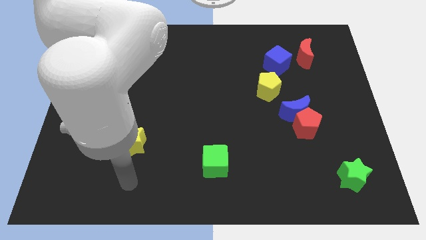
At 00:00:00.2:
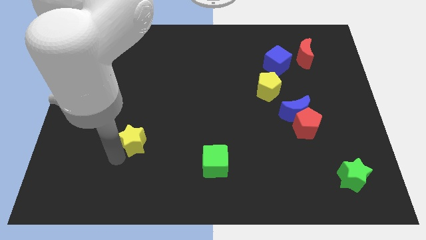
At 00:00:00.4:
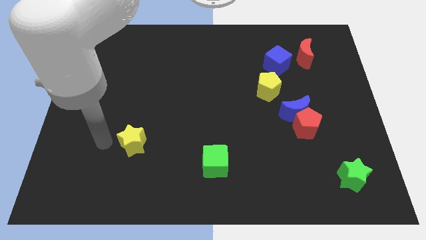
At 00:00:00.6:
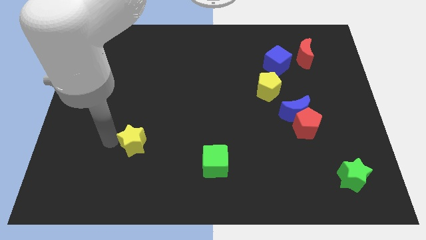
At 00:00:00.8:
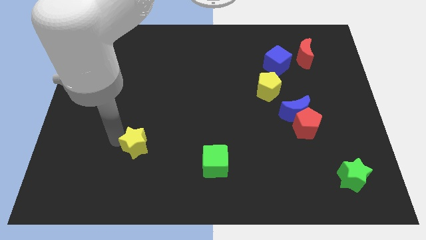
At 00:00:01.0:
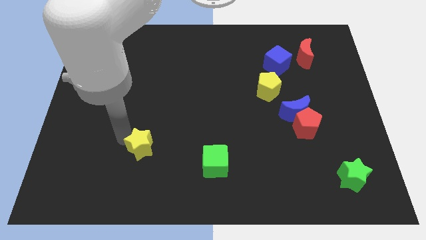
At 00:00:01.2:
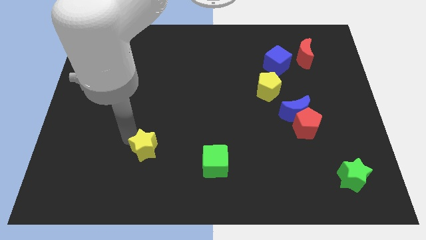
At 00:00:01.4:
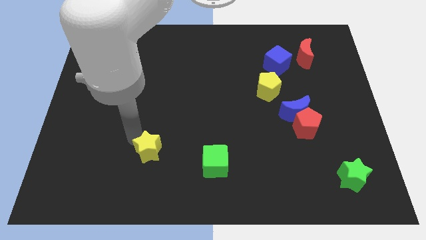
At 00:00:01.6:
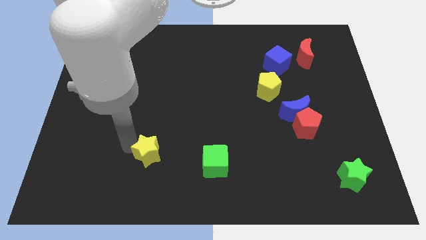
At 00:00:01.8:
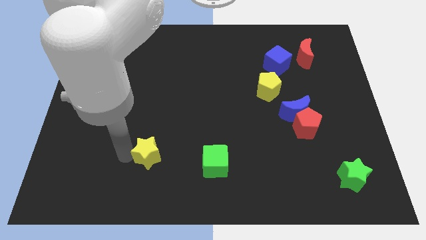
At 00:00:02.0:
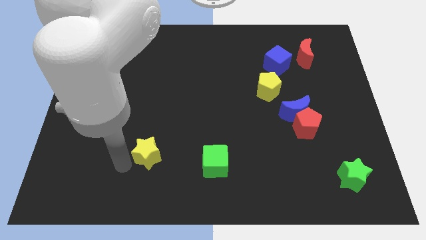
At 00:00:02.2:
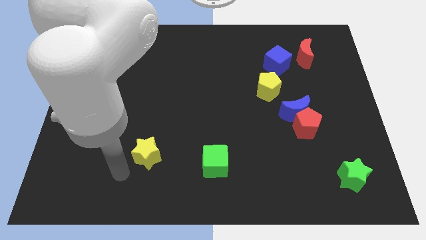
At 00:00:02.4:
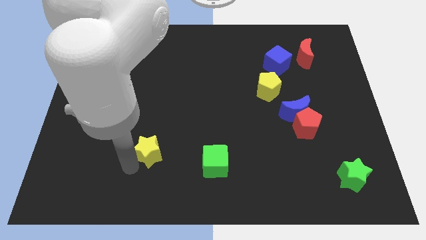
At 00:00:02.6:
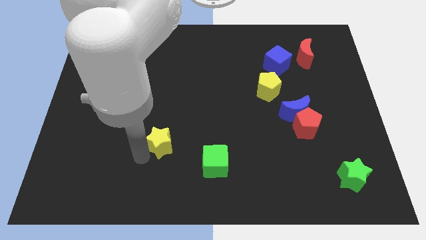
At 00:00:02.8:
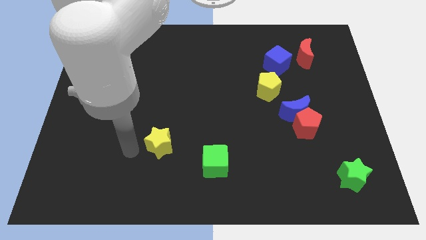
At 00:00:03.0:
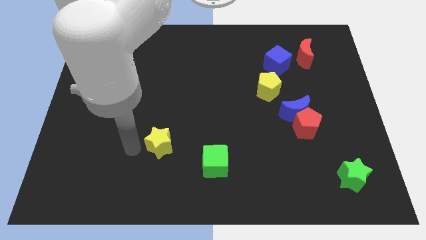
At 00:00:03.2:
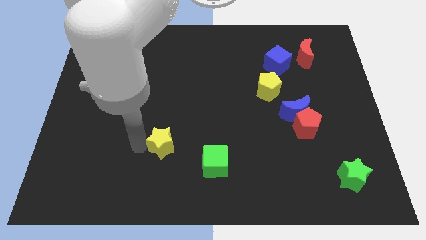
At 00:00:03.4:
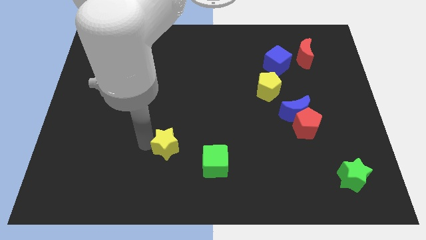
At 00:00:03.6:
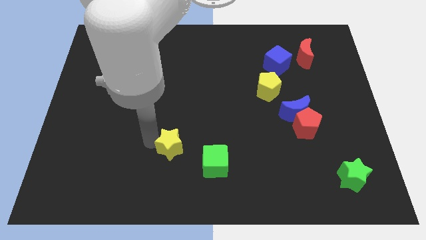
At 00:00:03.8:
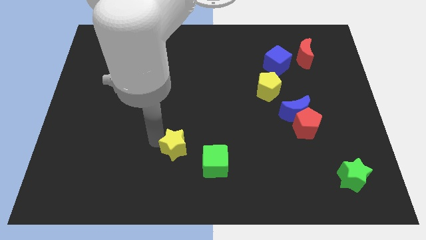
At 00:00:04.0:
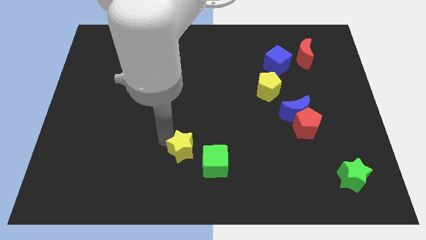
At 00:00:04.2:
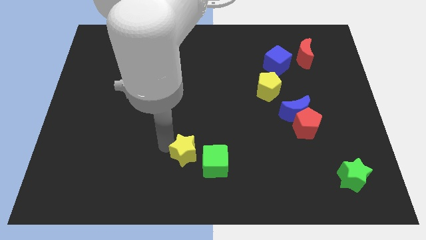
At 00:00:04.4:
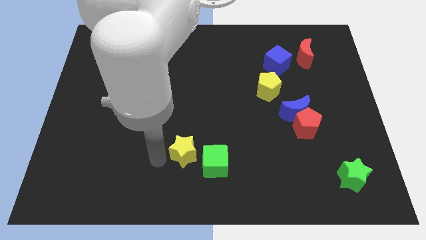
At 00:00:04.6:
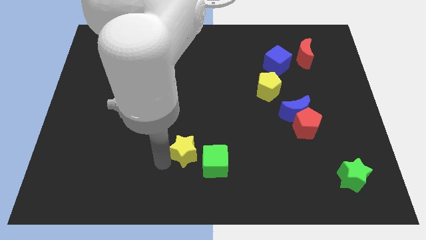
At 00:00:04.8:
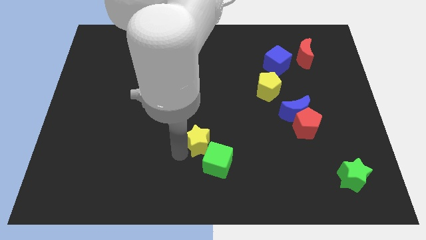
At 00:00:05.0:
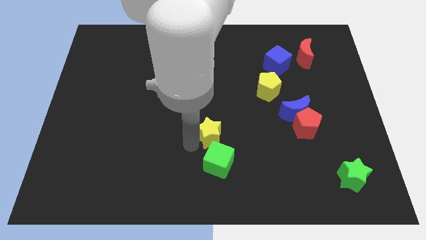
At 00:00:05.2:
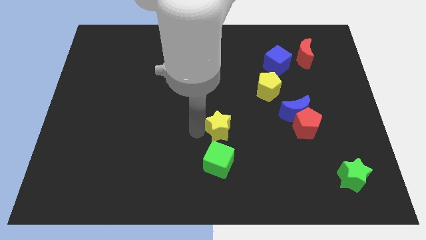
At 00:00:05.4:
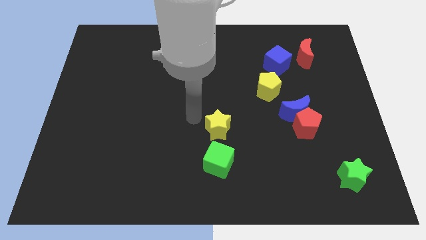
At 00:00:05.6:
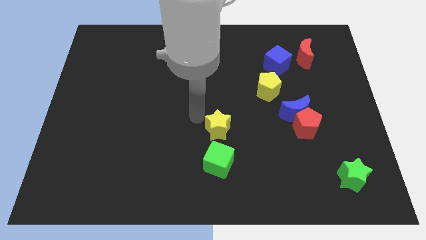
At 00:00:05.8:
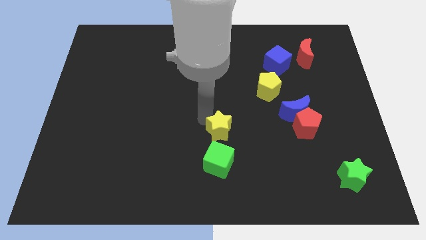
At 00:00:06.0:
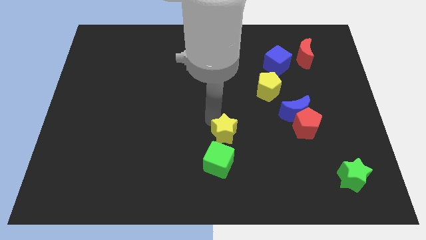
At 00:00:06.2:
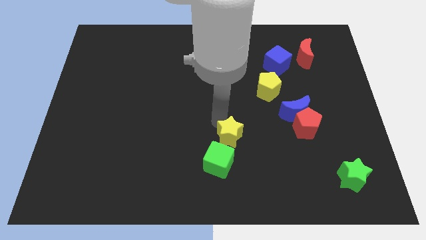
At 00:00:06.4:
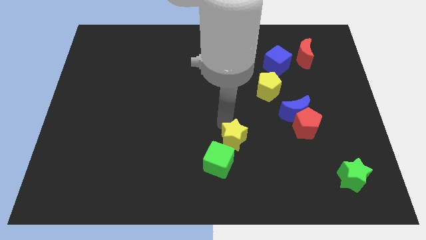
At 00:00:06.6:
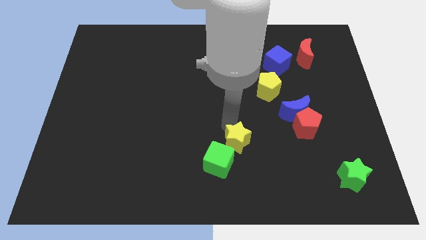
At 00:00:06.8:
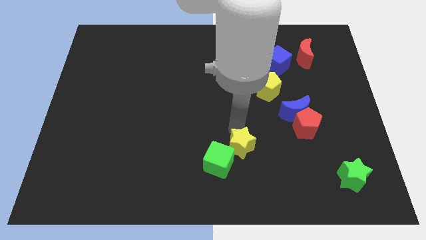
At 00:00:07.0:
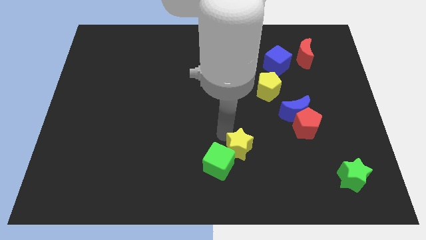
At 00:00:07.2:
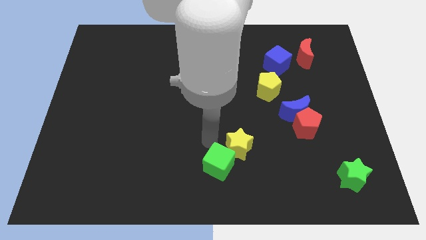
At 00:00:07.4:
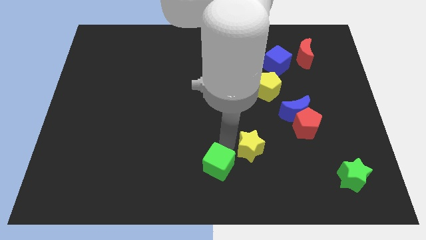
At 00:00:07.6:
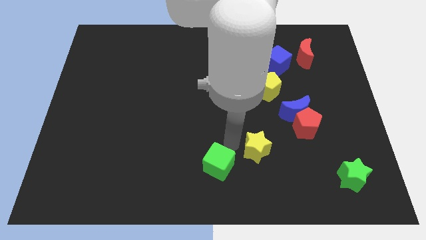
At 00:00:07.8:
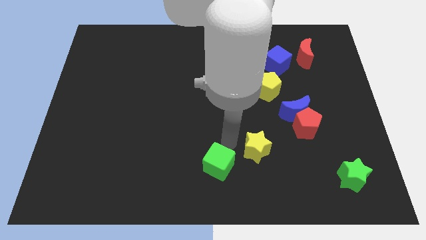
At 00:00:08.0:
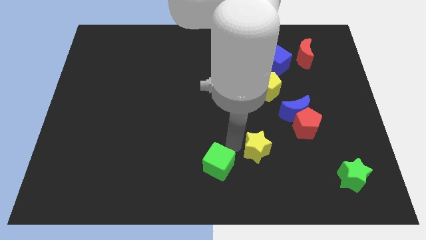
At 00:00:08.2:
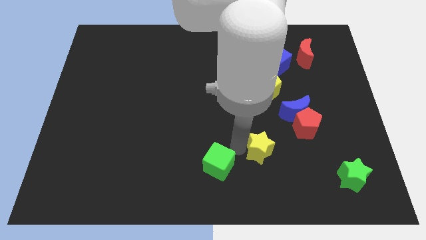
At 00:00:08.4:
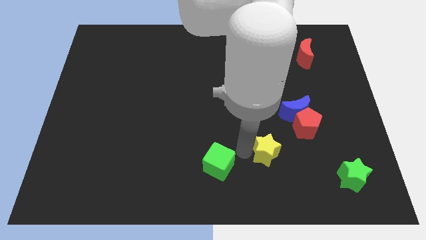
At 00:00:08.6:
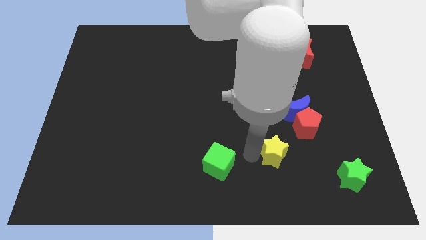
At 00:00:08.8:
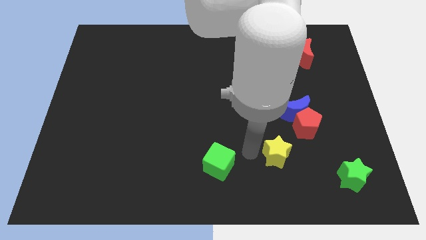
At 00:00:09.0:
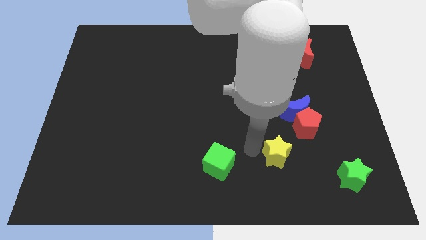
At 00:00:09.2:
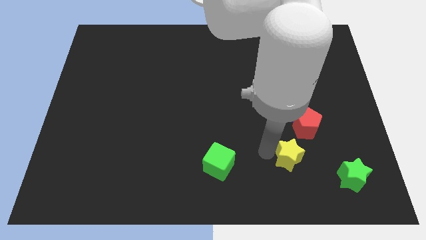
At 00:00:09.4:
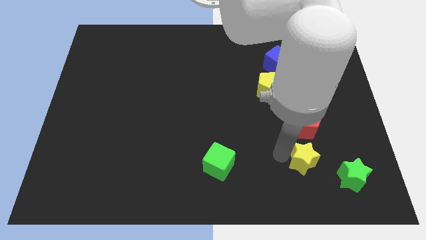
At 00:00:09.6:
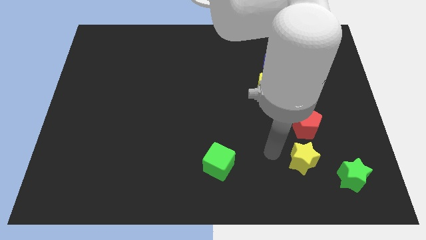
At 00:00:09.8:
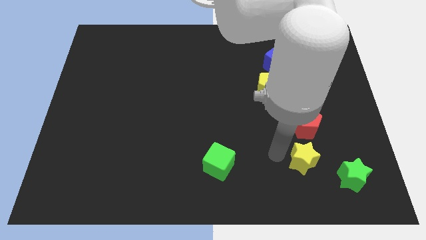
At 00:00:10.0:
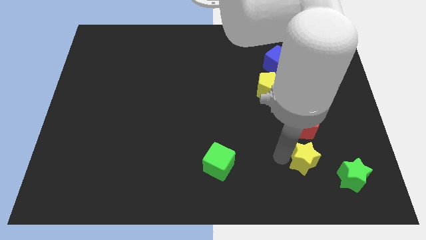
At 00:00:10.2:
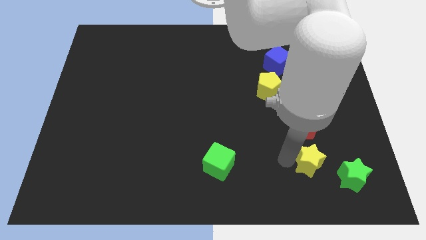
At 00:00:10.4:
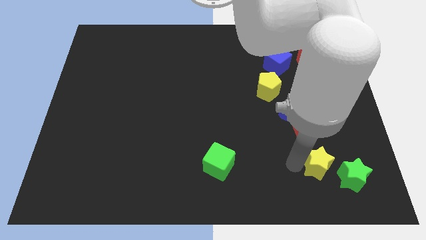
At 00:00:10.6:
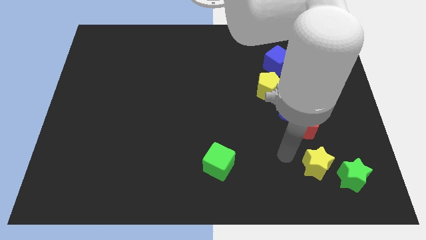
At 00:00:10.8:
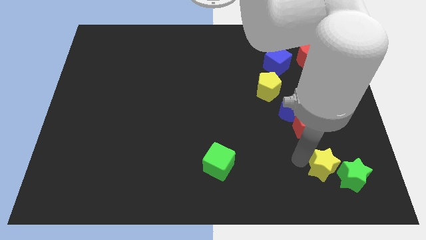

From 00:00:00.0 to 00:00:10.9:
slide the yellow star close to the green star

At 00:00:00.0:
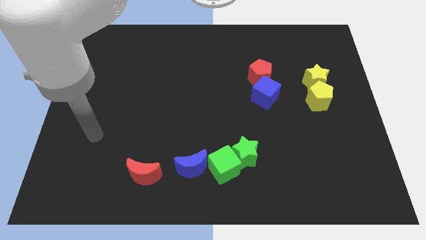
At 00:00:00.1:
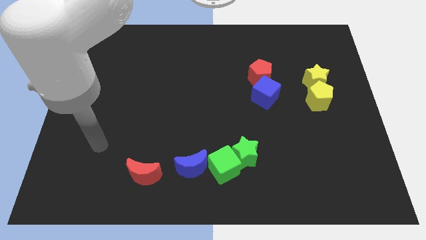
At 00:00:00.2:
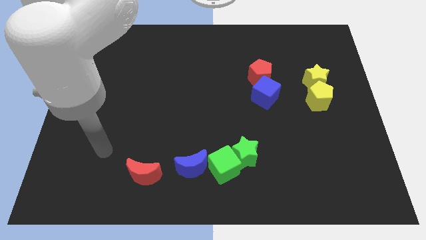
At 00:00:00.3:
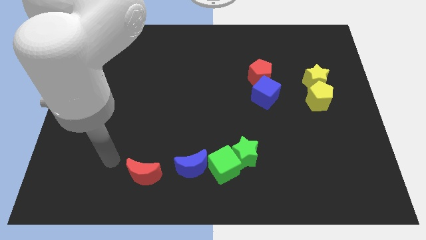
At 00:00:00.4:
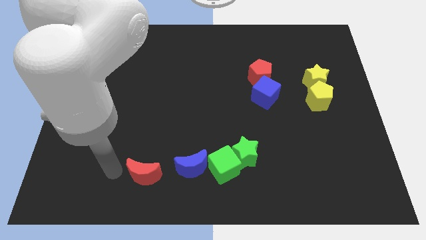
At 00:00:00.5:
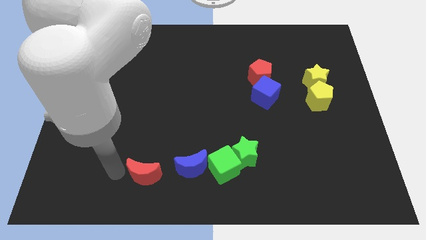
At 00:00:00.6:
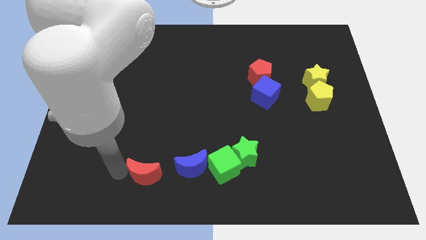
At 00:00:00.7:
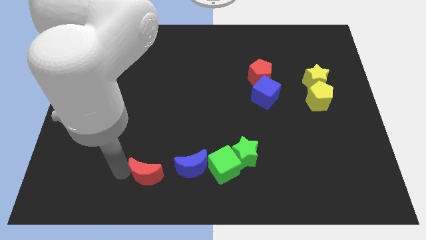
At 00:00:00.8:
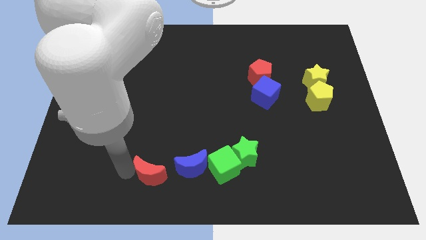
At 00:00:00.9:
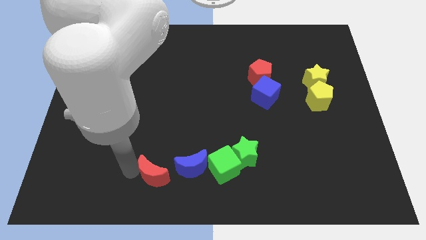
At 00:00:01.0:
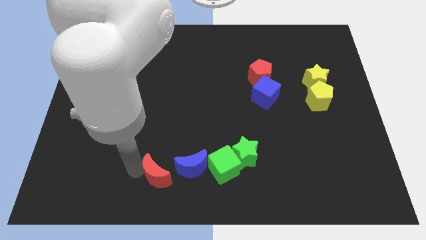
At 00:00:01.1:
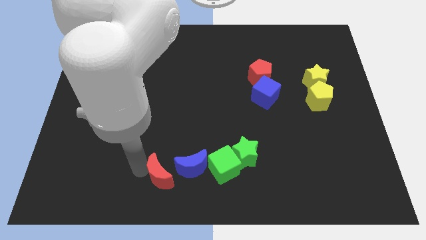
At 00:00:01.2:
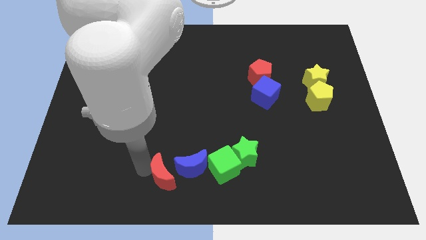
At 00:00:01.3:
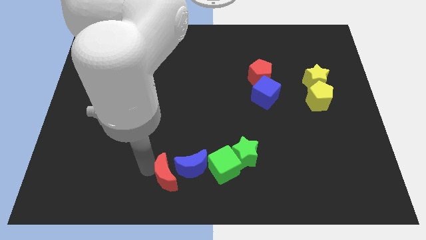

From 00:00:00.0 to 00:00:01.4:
put the red moon towards the blue moon
